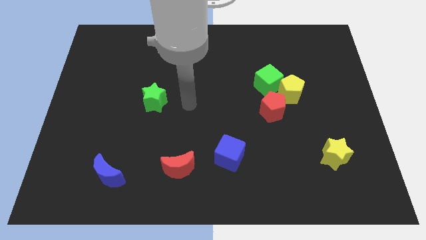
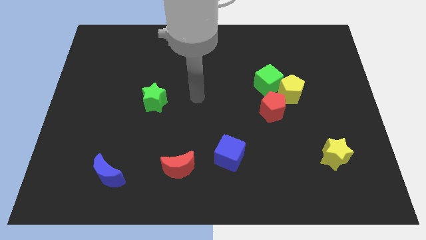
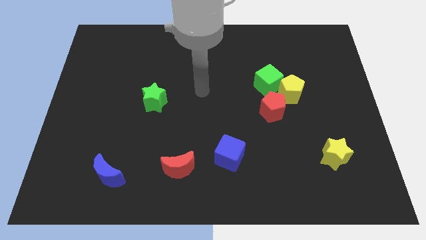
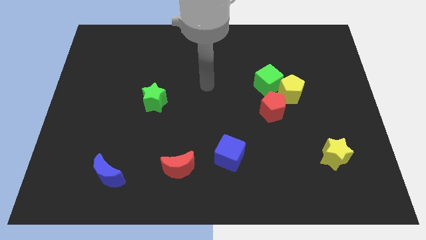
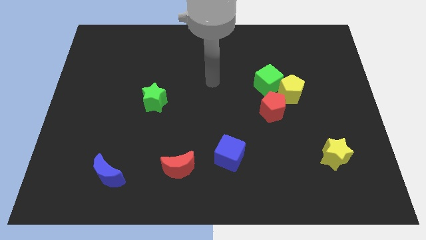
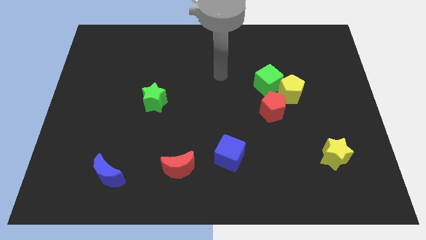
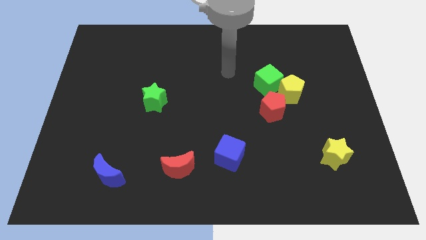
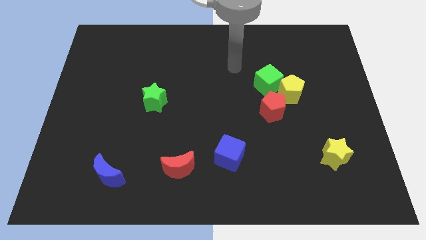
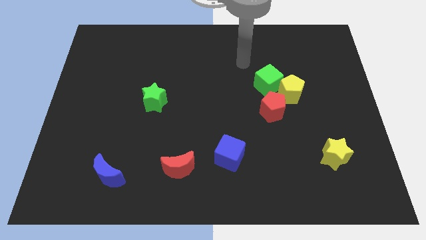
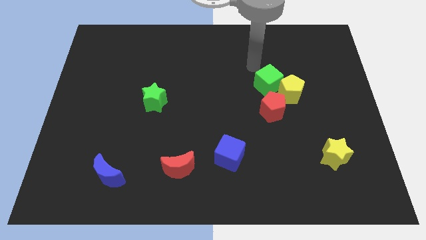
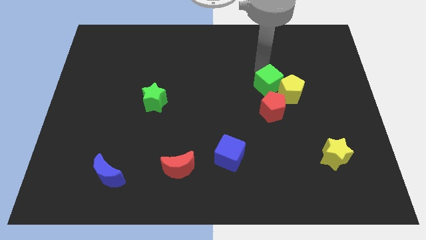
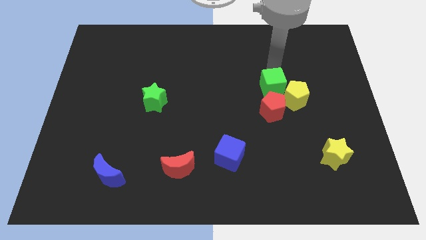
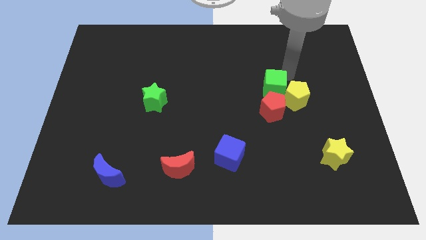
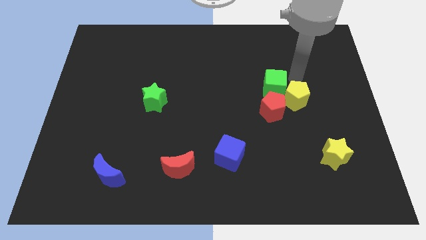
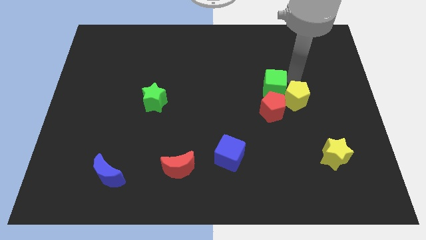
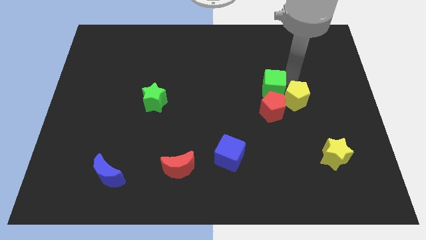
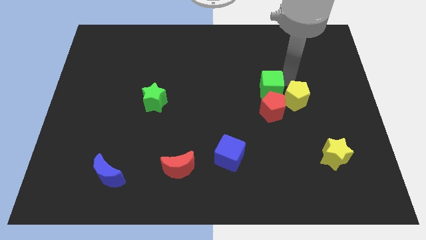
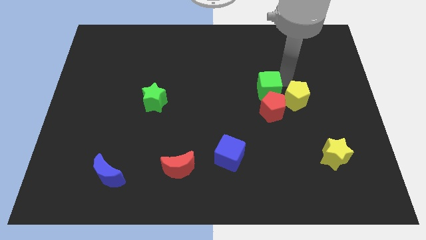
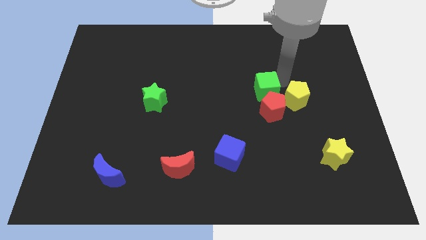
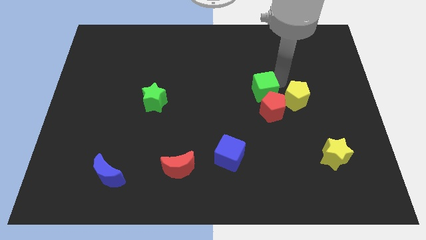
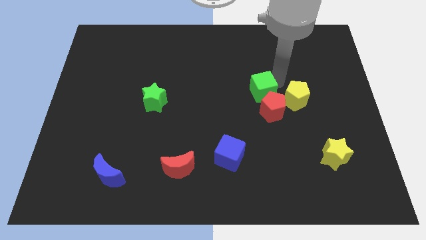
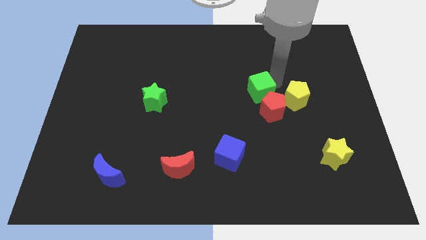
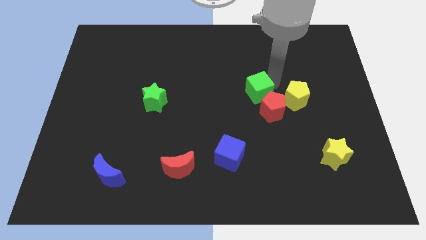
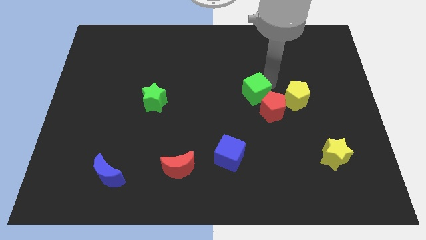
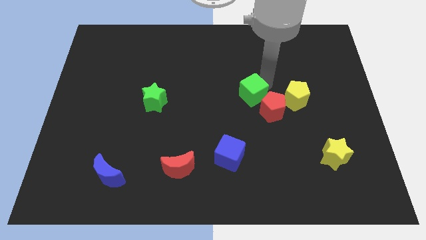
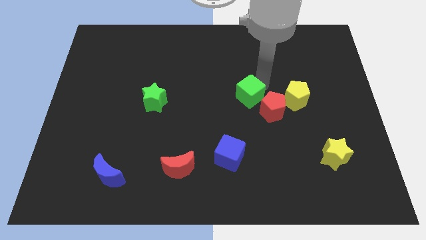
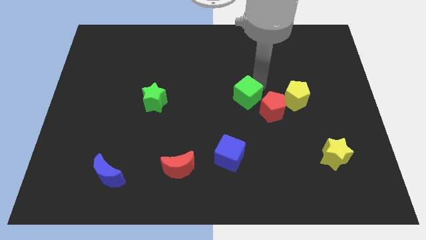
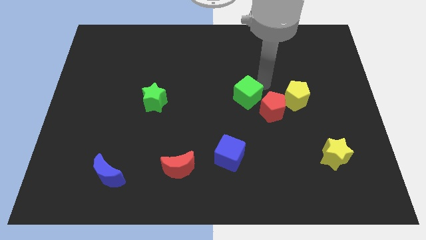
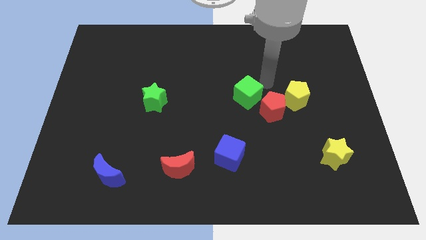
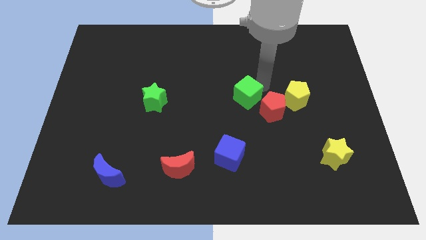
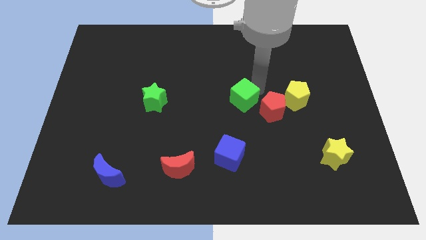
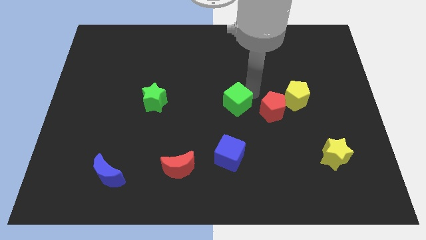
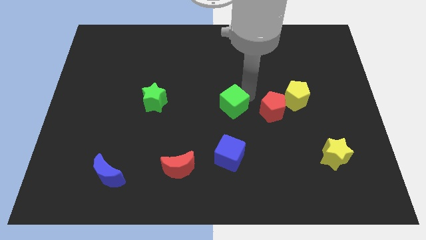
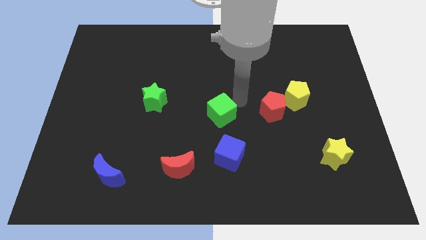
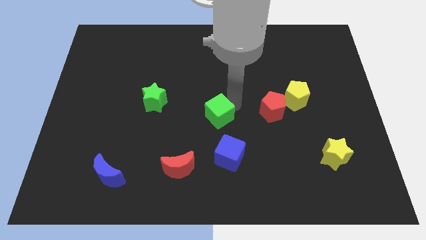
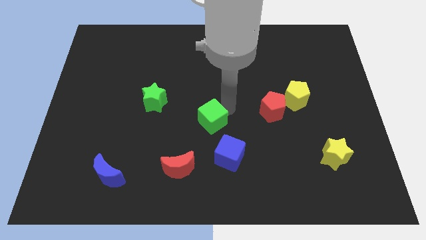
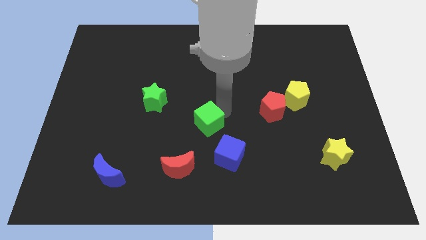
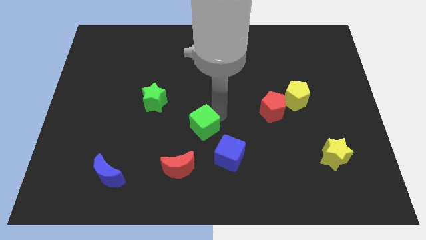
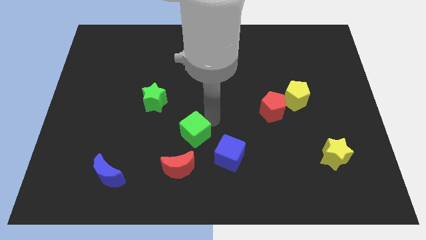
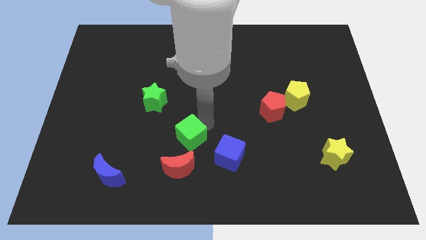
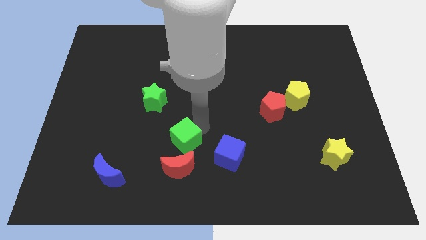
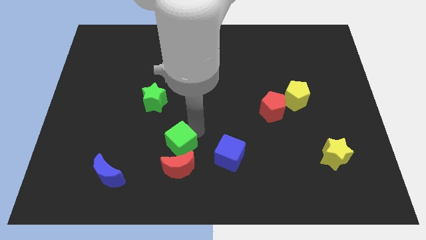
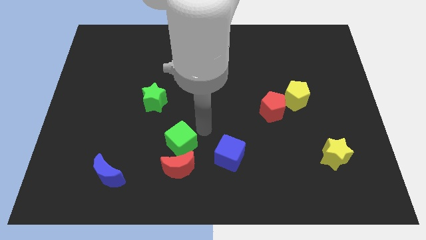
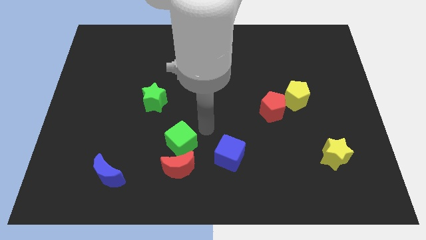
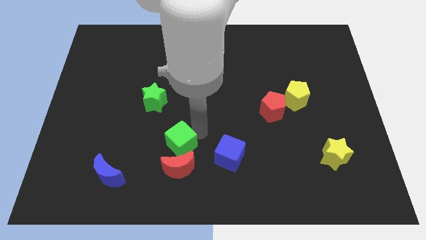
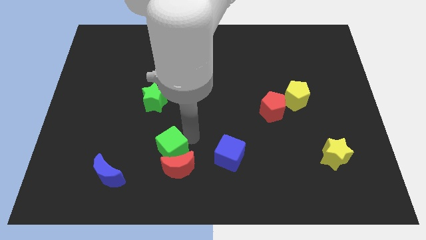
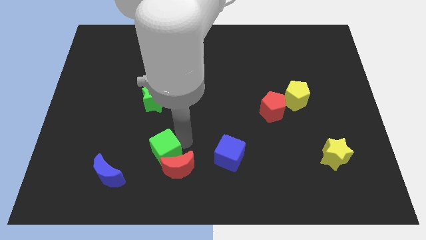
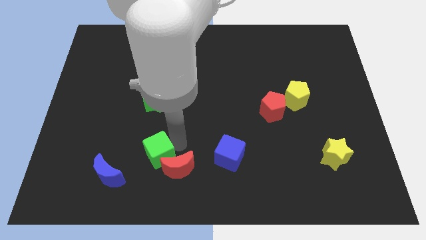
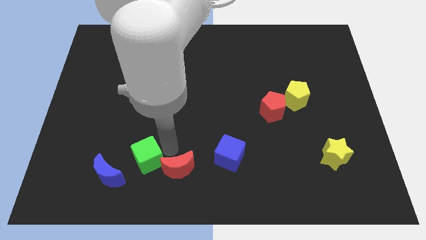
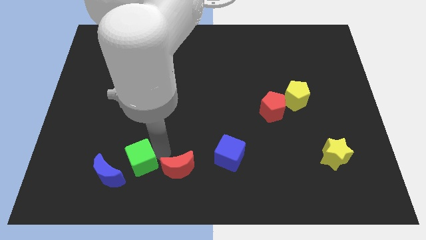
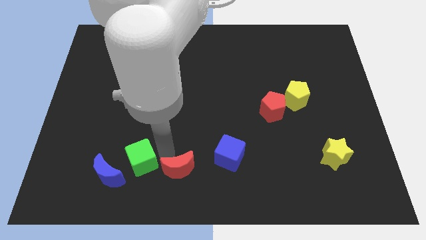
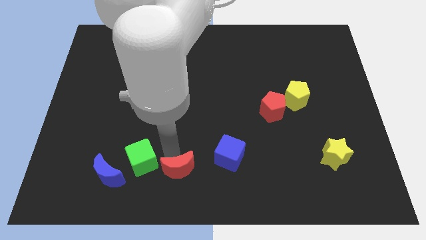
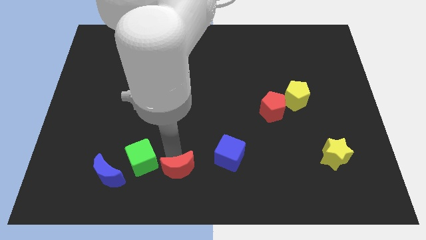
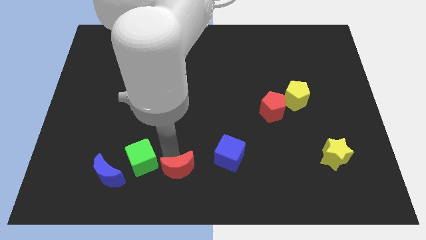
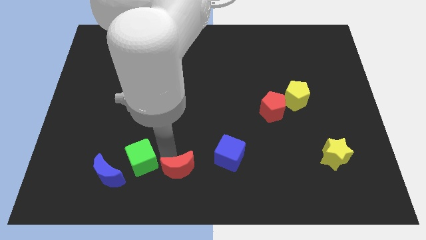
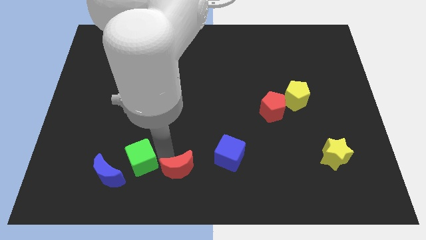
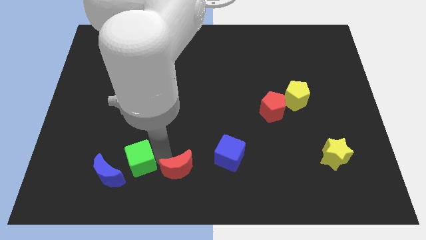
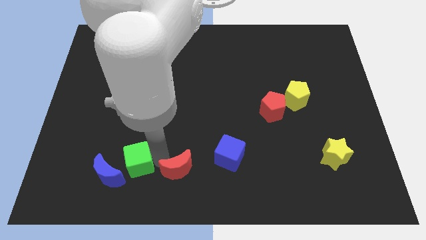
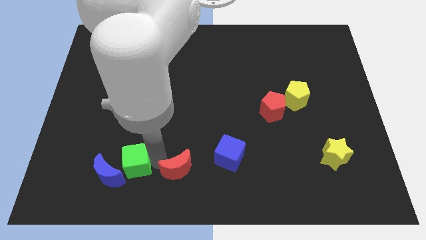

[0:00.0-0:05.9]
move the green cube to the blue moon
